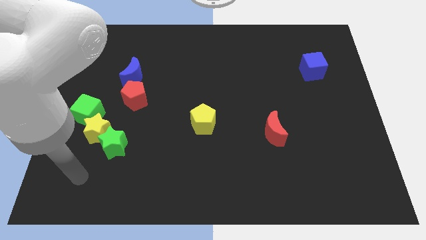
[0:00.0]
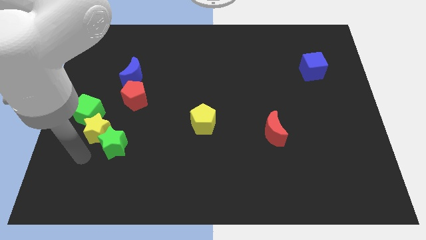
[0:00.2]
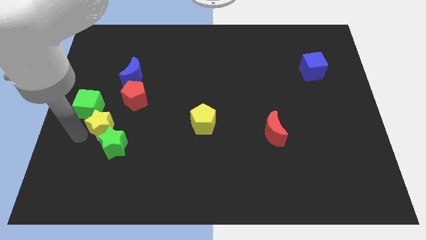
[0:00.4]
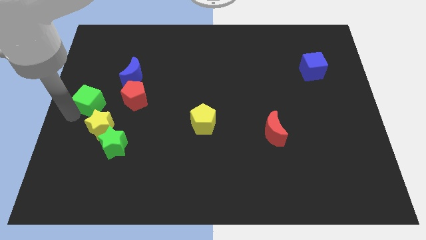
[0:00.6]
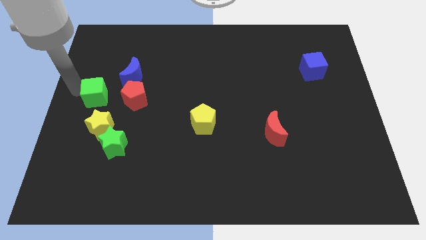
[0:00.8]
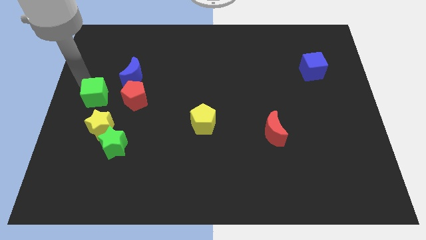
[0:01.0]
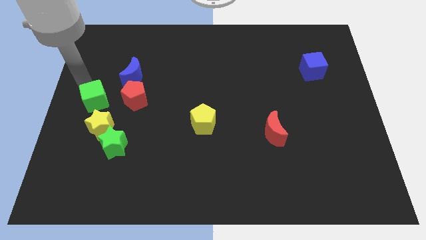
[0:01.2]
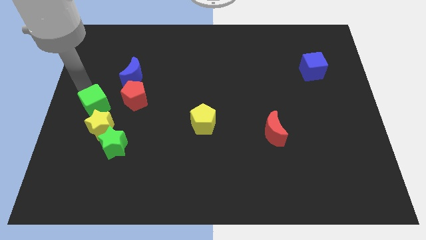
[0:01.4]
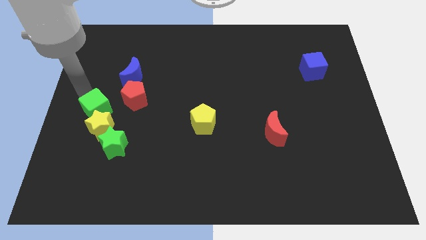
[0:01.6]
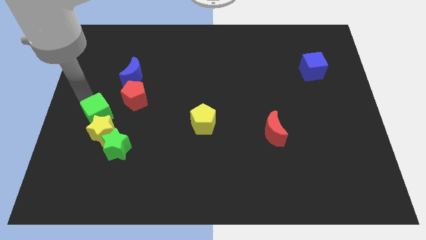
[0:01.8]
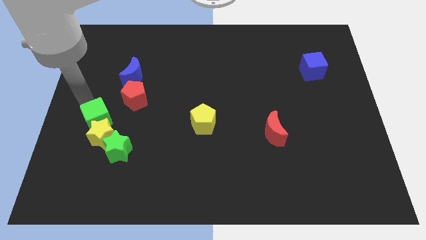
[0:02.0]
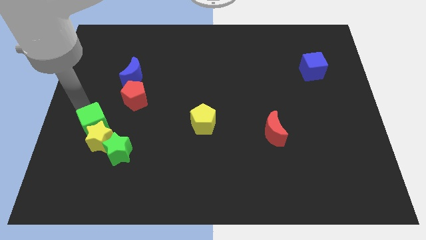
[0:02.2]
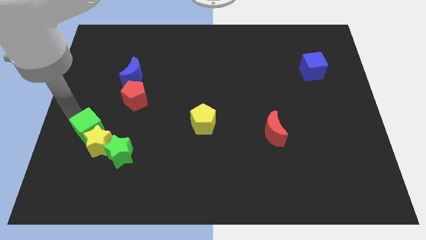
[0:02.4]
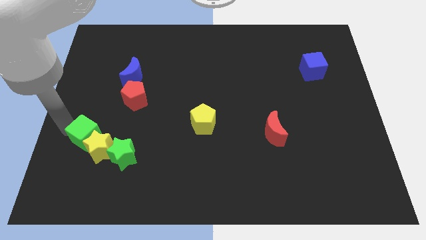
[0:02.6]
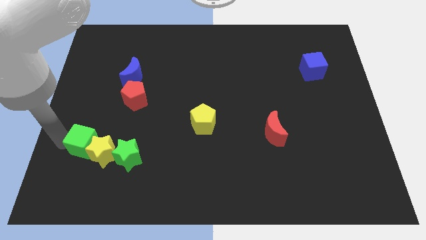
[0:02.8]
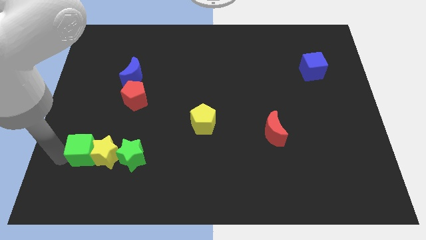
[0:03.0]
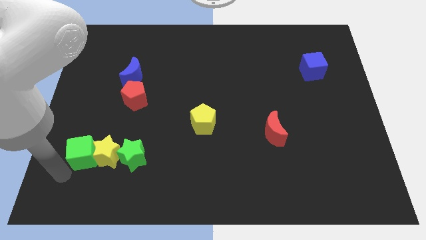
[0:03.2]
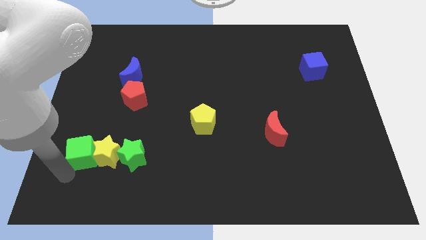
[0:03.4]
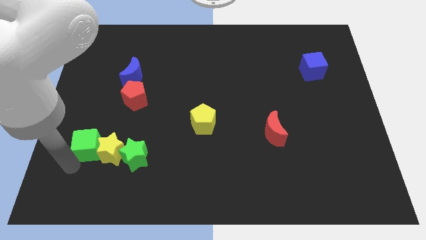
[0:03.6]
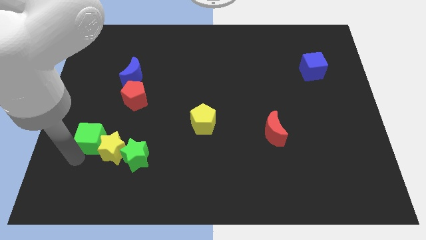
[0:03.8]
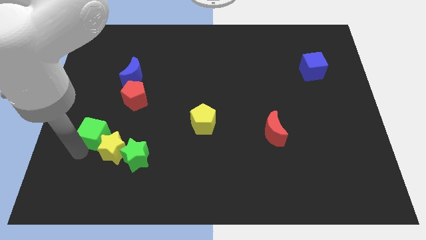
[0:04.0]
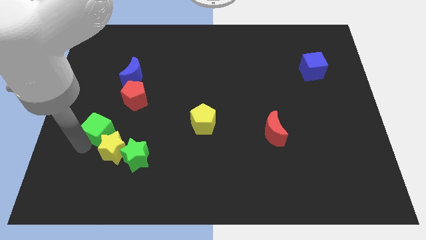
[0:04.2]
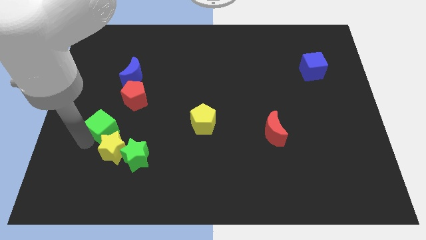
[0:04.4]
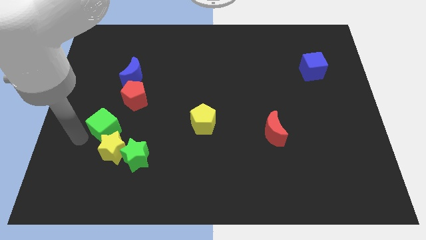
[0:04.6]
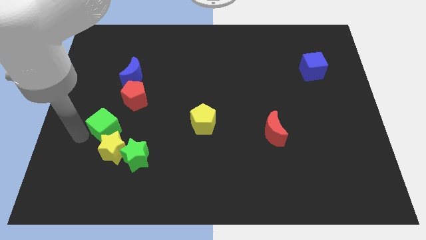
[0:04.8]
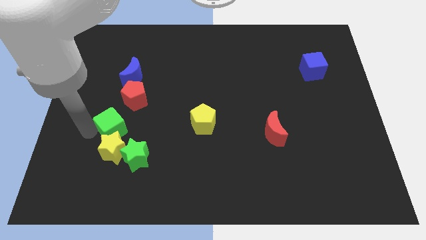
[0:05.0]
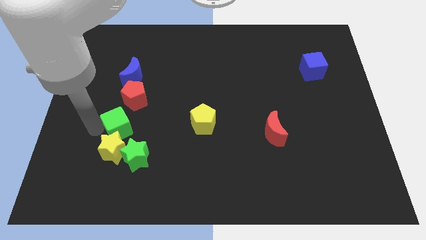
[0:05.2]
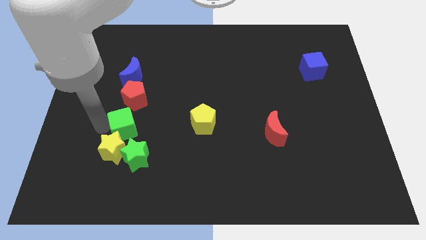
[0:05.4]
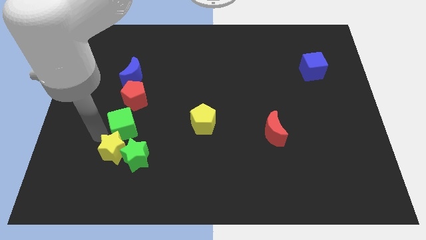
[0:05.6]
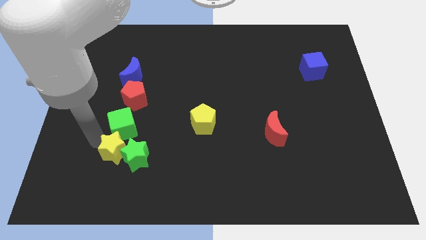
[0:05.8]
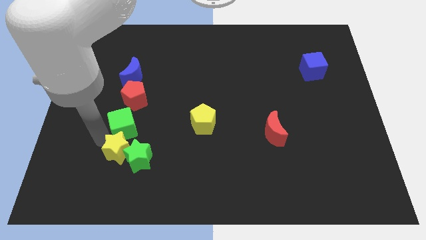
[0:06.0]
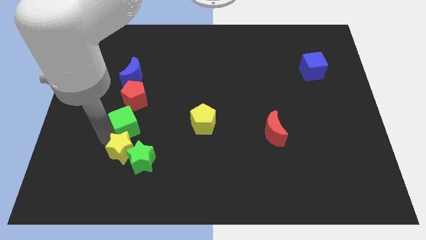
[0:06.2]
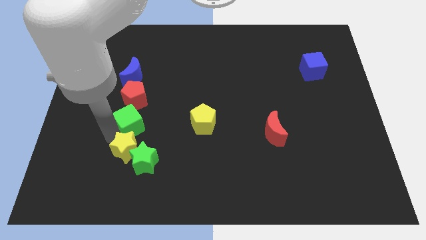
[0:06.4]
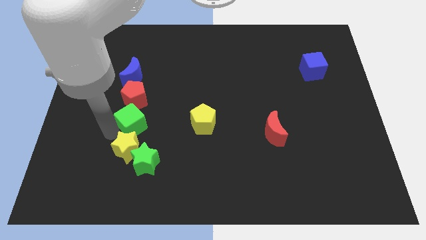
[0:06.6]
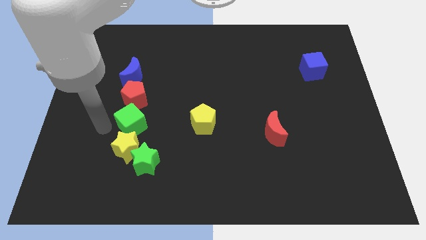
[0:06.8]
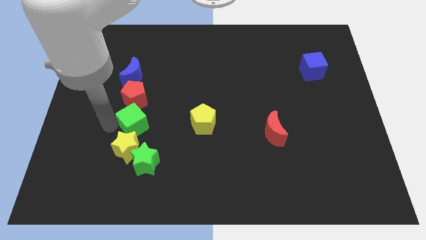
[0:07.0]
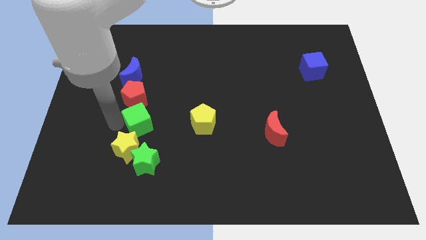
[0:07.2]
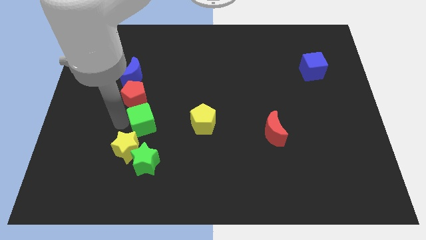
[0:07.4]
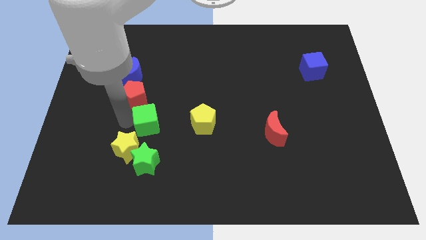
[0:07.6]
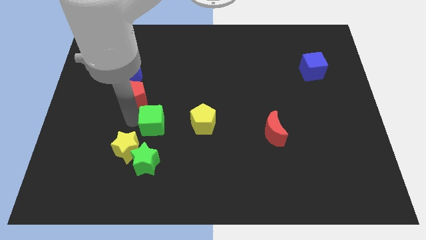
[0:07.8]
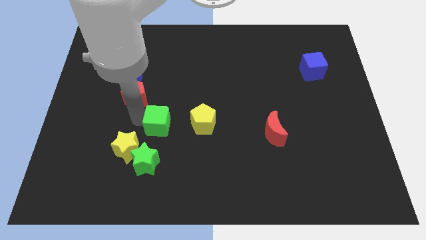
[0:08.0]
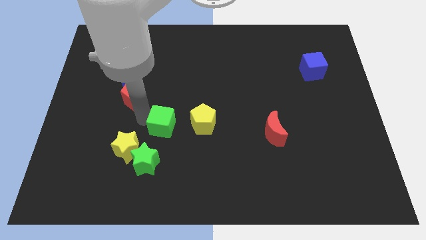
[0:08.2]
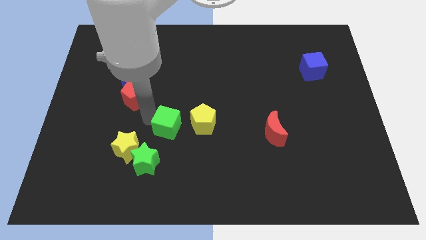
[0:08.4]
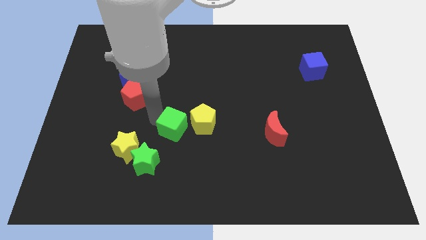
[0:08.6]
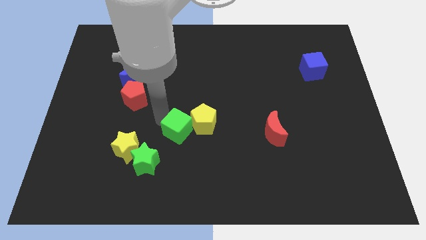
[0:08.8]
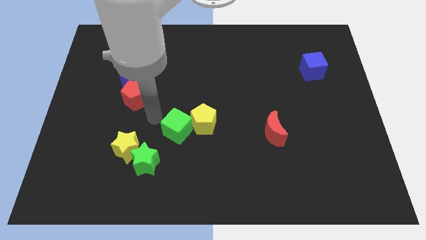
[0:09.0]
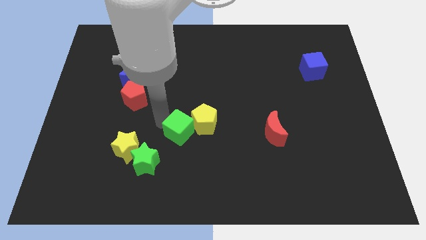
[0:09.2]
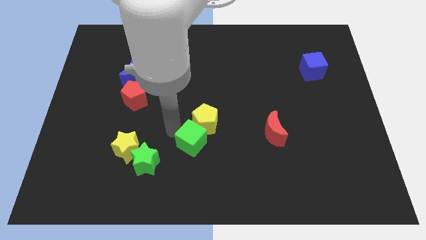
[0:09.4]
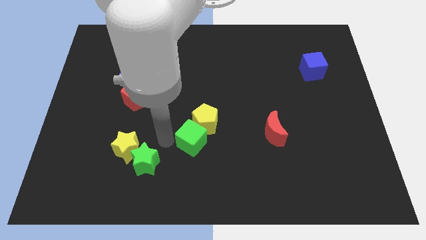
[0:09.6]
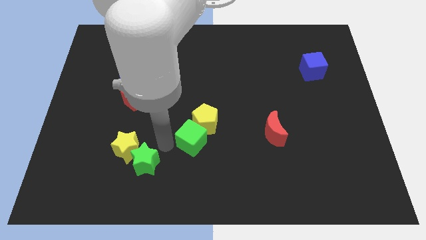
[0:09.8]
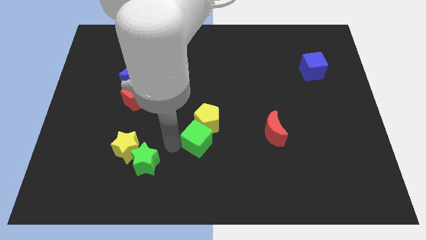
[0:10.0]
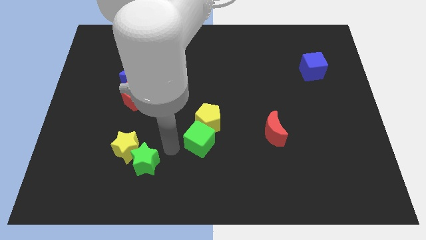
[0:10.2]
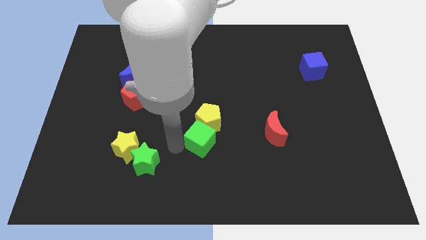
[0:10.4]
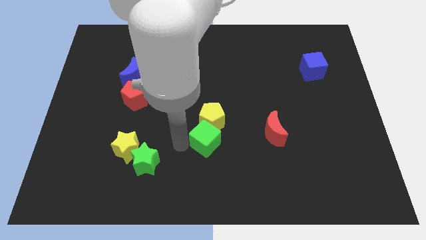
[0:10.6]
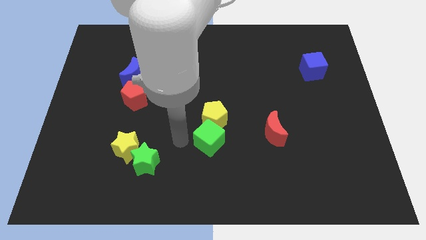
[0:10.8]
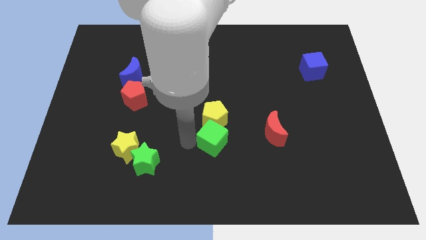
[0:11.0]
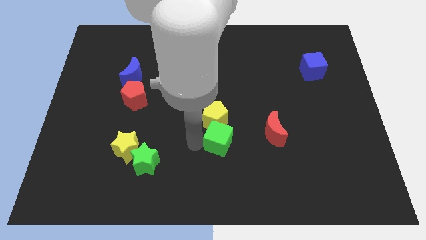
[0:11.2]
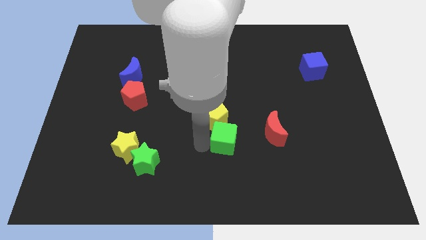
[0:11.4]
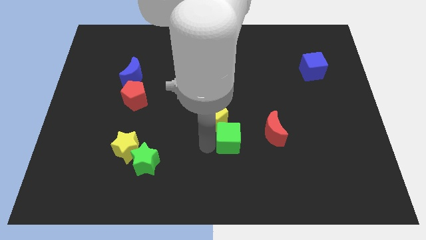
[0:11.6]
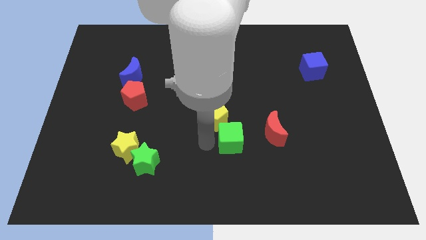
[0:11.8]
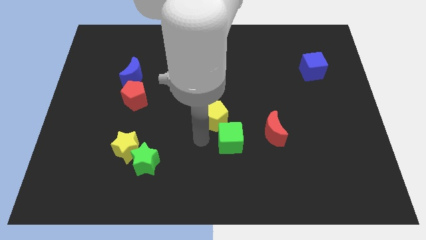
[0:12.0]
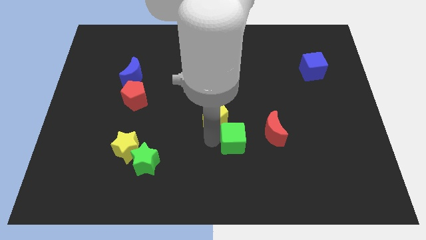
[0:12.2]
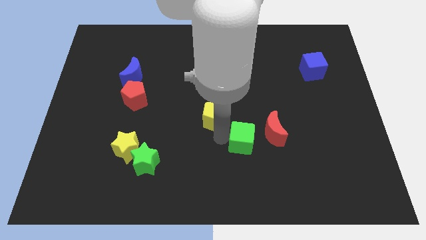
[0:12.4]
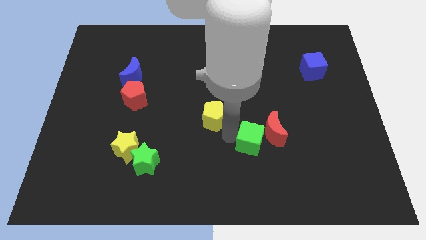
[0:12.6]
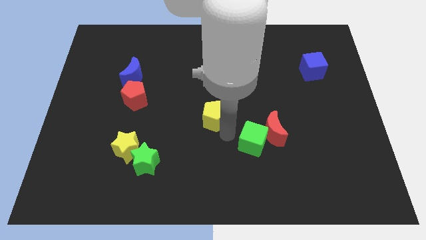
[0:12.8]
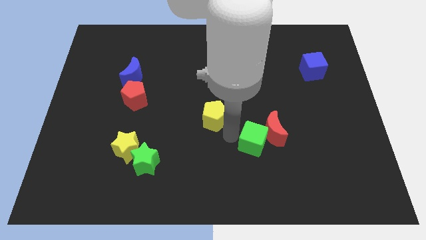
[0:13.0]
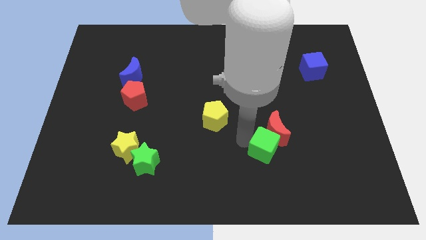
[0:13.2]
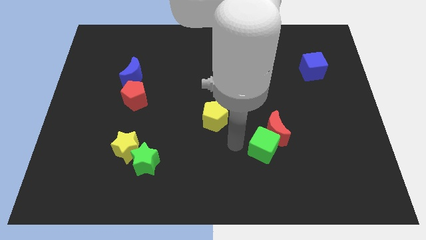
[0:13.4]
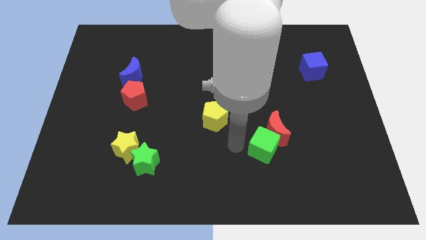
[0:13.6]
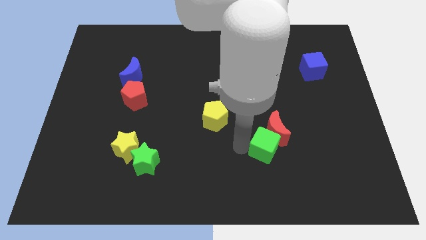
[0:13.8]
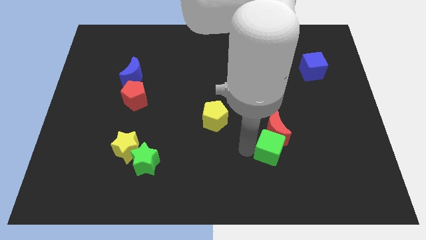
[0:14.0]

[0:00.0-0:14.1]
push the green cube to the bottom right side of the red moon
